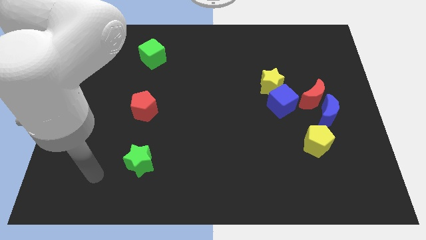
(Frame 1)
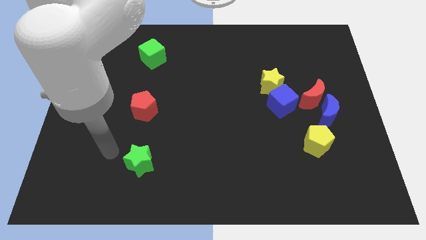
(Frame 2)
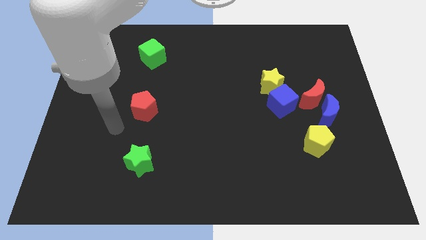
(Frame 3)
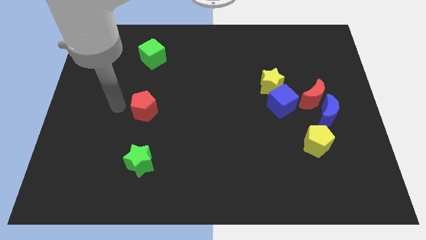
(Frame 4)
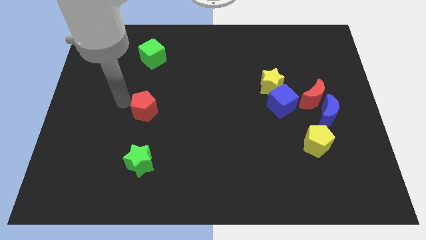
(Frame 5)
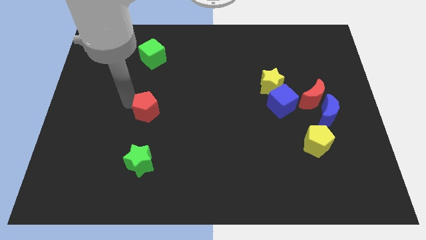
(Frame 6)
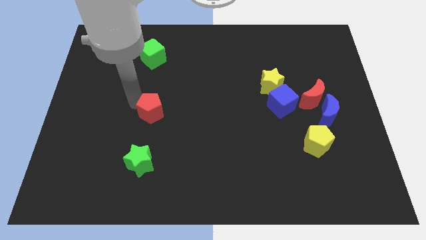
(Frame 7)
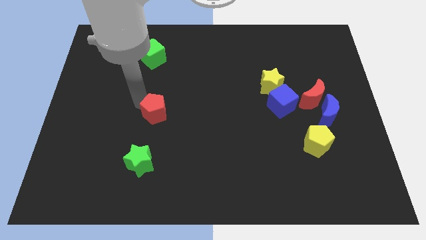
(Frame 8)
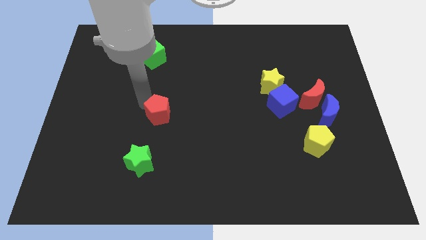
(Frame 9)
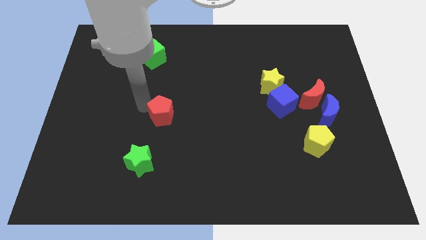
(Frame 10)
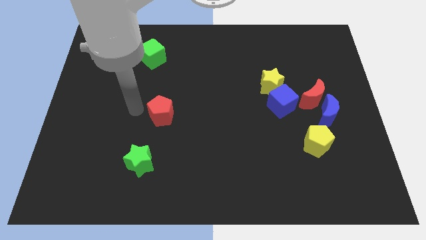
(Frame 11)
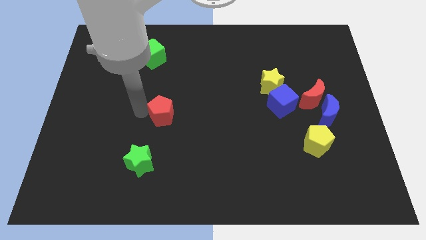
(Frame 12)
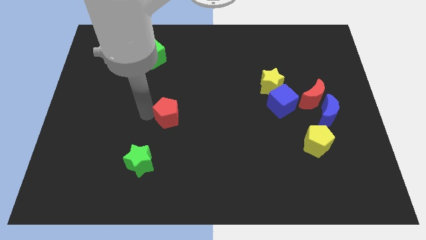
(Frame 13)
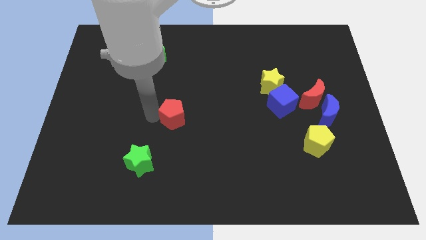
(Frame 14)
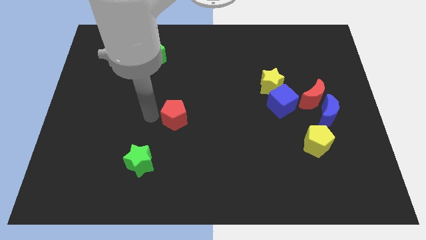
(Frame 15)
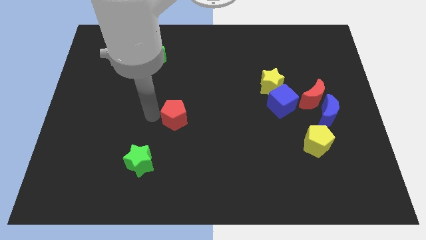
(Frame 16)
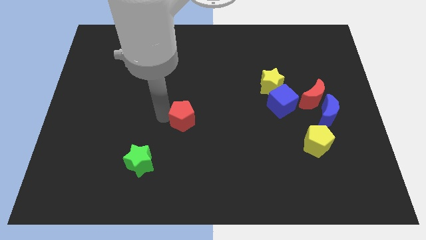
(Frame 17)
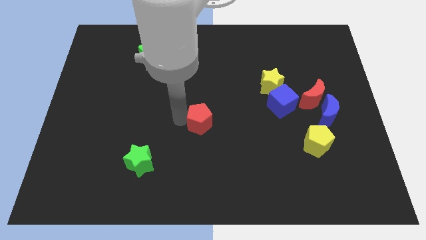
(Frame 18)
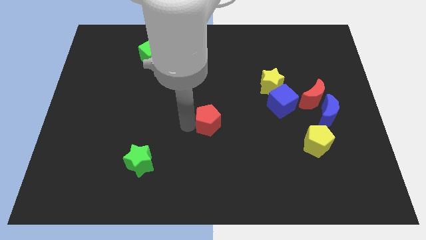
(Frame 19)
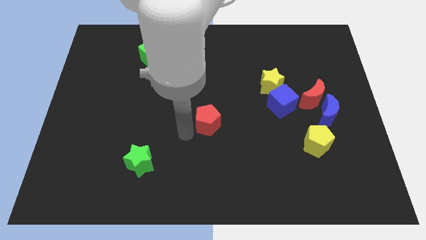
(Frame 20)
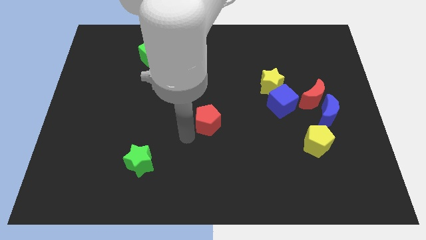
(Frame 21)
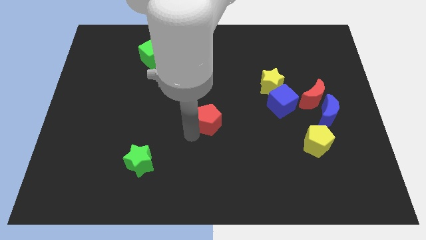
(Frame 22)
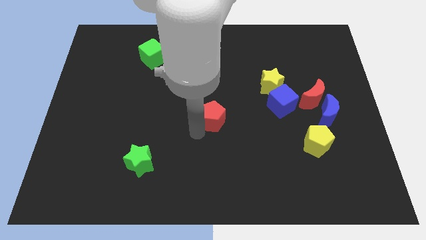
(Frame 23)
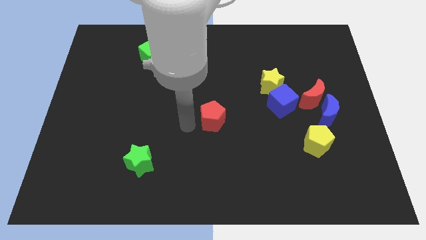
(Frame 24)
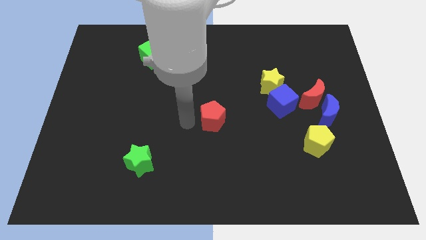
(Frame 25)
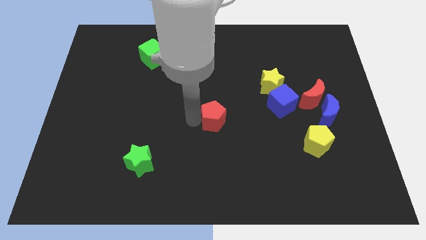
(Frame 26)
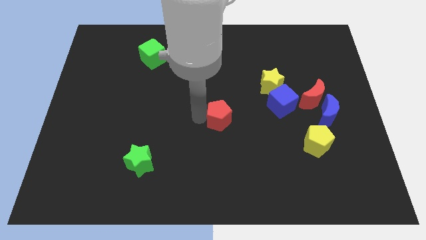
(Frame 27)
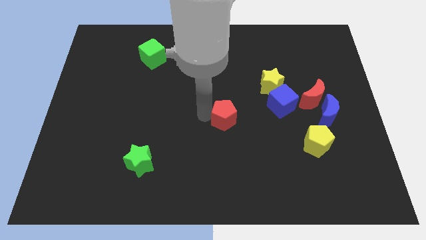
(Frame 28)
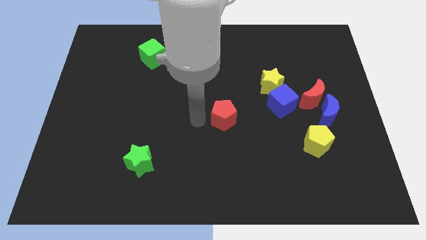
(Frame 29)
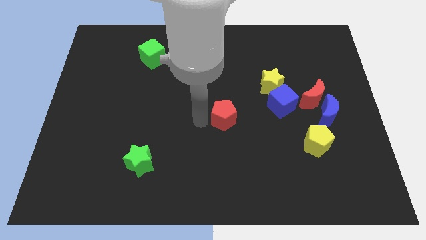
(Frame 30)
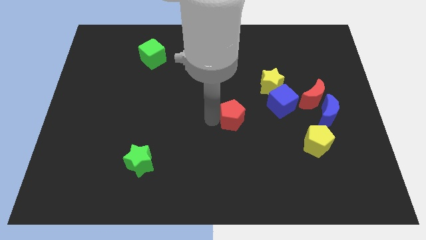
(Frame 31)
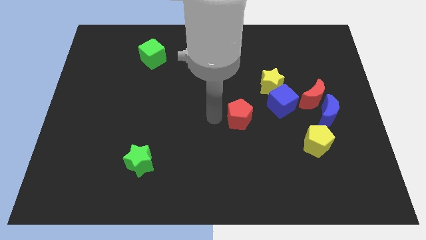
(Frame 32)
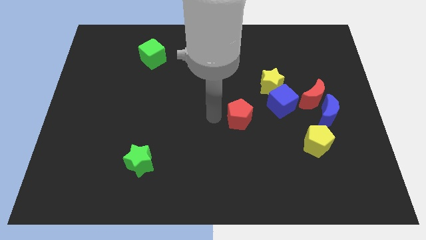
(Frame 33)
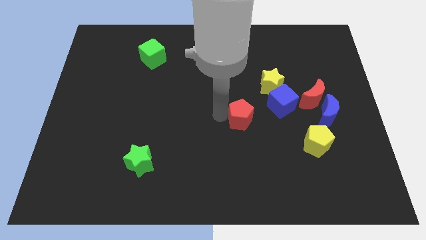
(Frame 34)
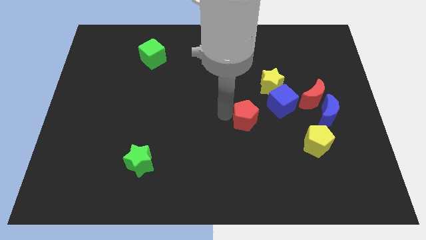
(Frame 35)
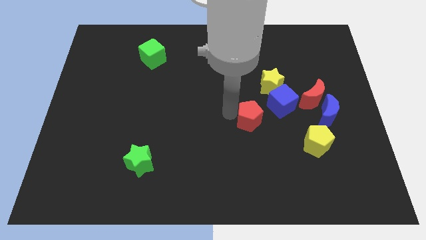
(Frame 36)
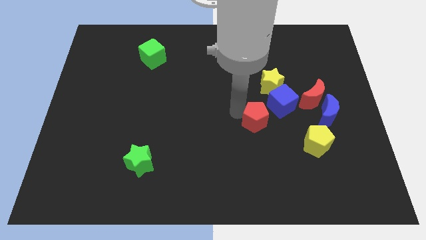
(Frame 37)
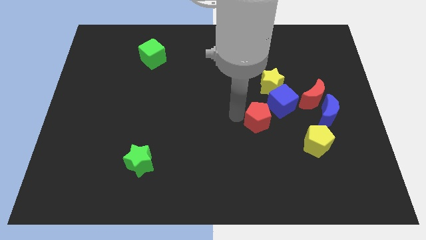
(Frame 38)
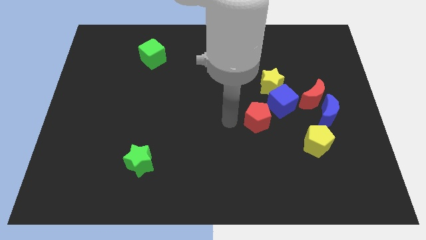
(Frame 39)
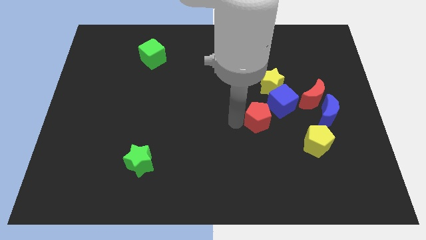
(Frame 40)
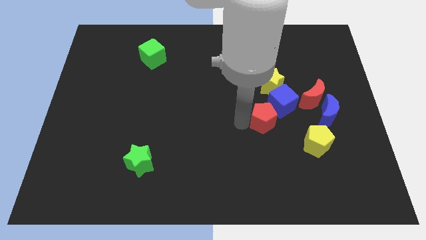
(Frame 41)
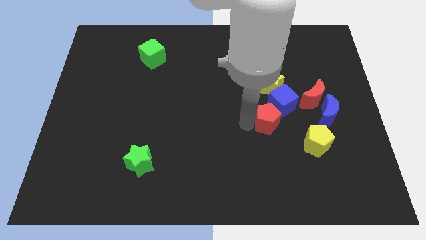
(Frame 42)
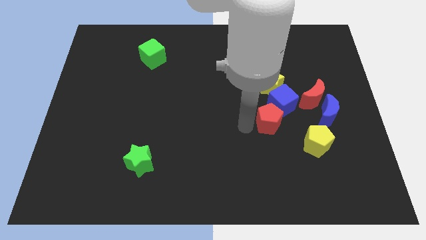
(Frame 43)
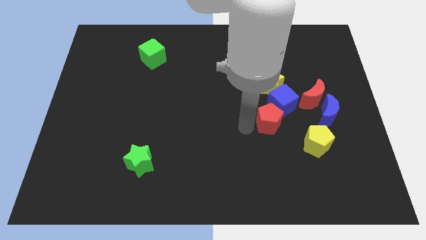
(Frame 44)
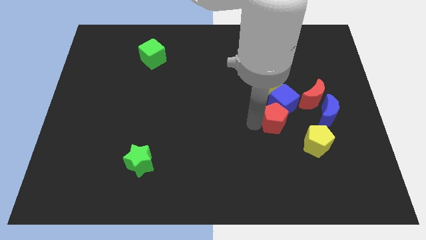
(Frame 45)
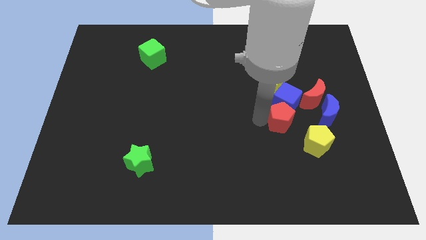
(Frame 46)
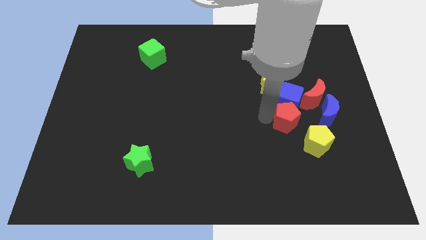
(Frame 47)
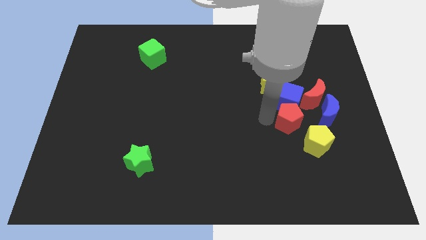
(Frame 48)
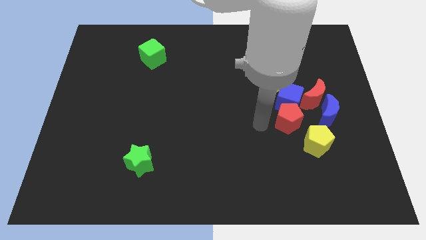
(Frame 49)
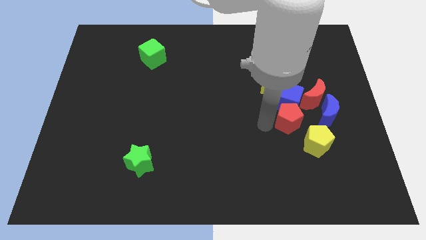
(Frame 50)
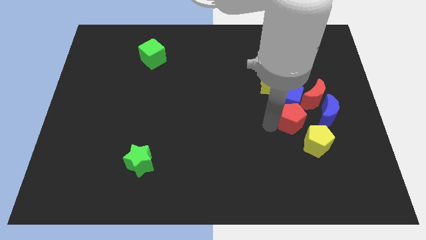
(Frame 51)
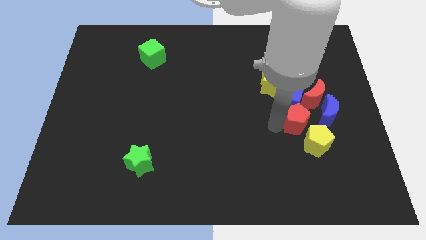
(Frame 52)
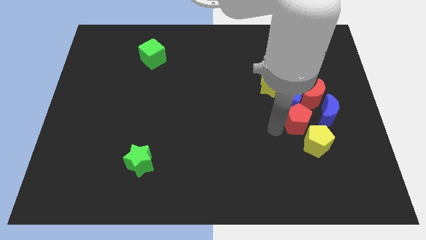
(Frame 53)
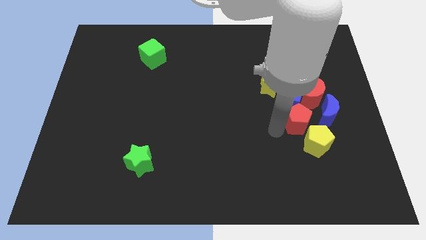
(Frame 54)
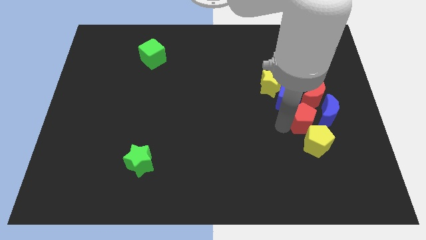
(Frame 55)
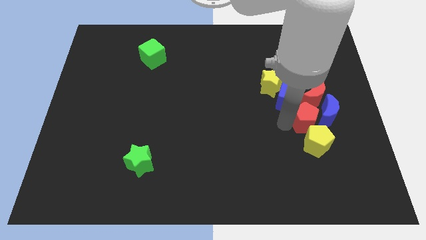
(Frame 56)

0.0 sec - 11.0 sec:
put the red pentagon to the blue moon

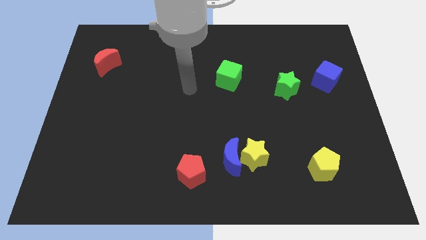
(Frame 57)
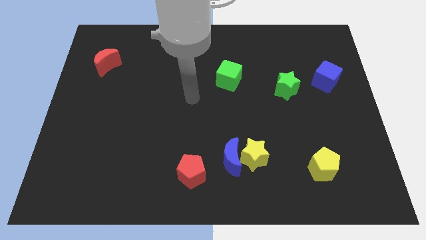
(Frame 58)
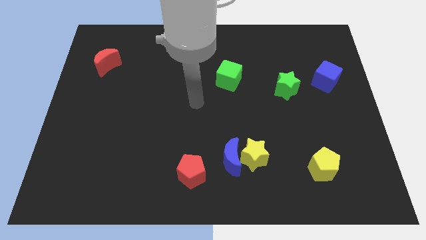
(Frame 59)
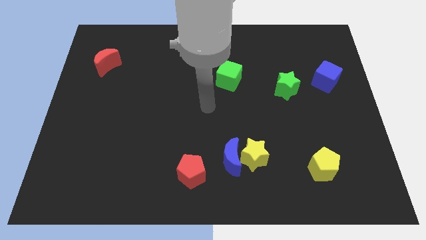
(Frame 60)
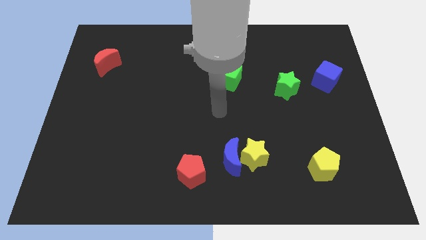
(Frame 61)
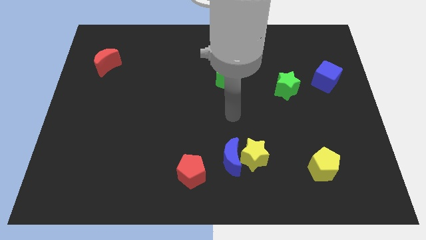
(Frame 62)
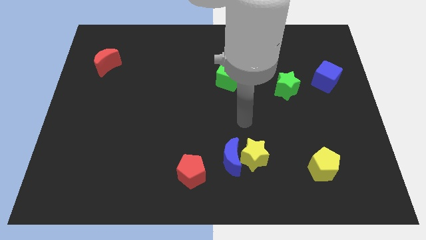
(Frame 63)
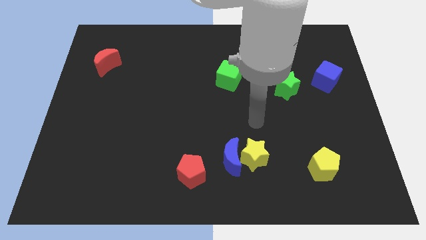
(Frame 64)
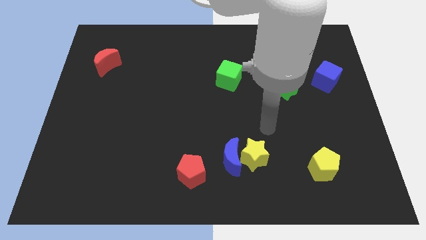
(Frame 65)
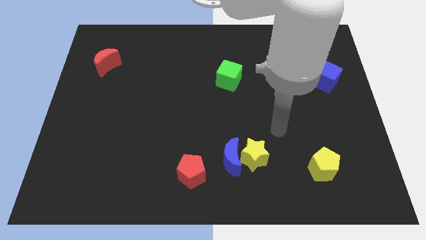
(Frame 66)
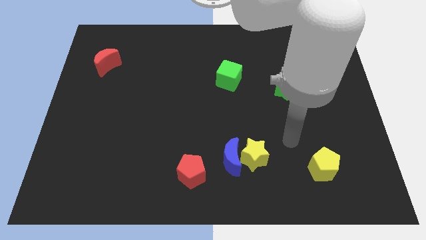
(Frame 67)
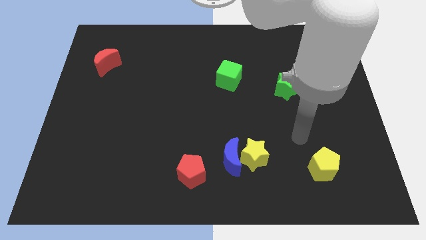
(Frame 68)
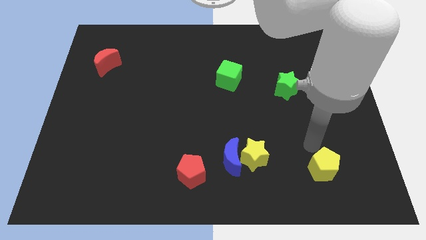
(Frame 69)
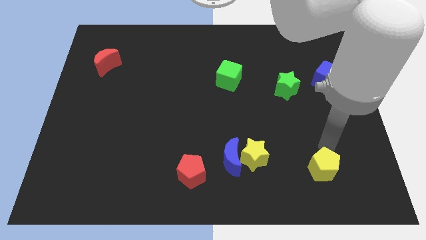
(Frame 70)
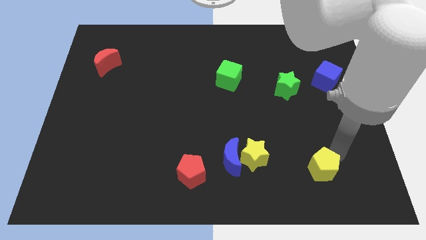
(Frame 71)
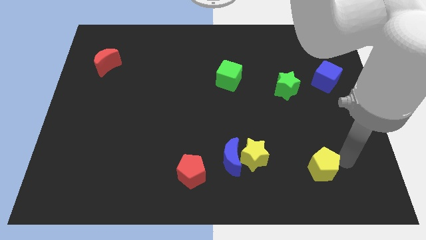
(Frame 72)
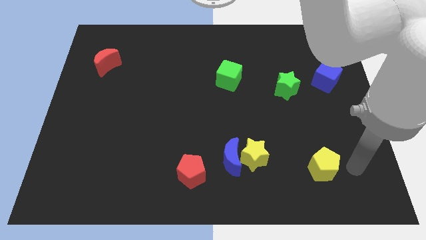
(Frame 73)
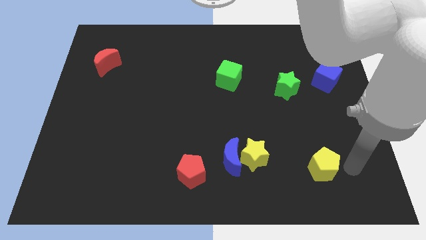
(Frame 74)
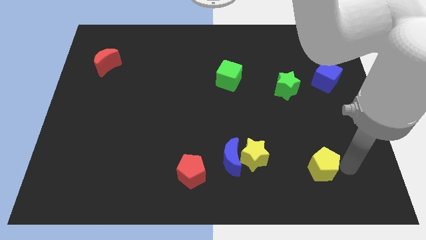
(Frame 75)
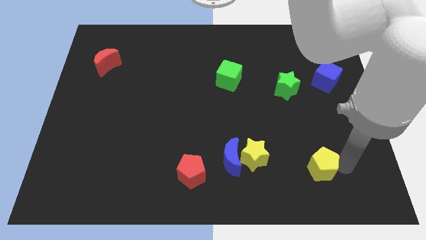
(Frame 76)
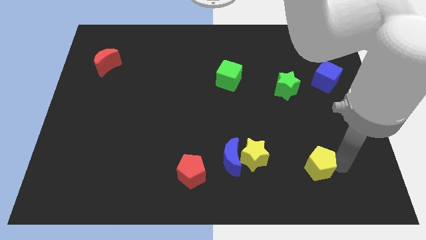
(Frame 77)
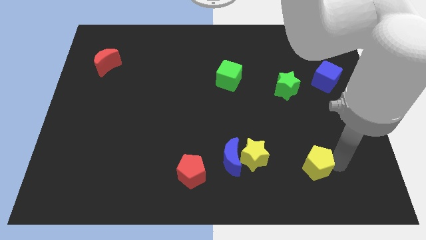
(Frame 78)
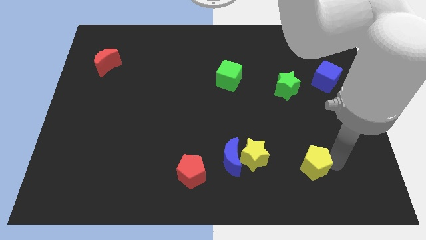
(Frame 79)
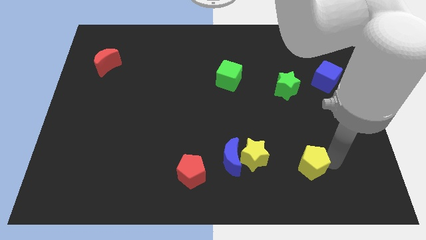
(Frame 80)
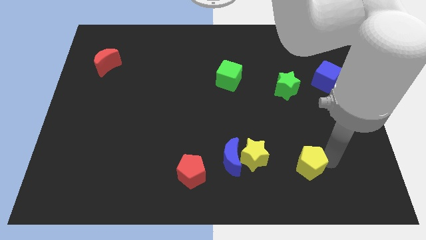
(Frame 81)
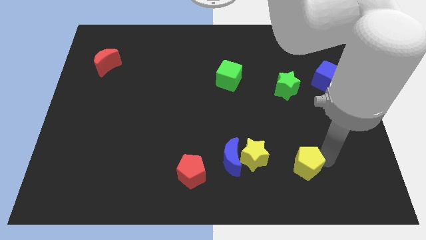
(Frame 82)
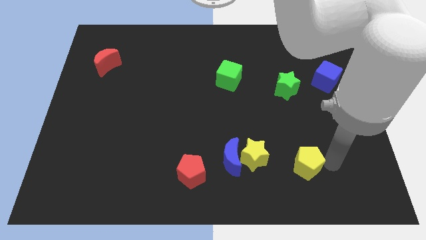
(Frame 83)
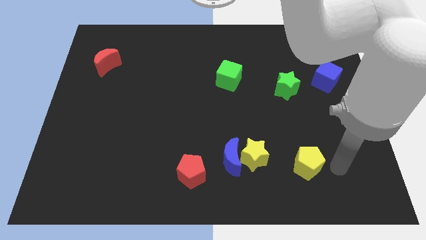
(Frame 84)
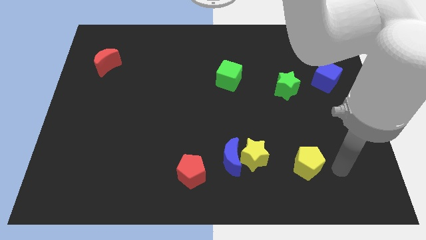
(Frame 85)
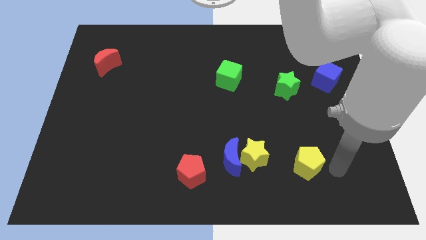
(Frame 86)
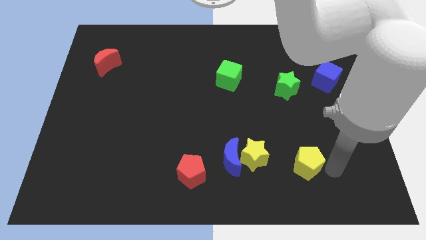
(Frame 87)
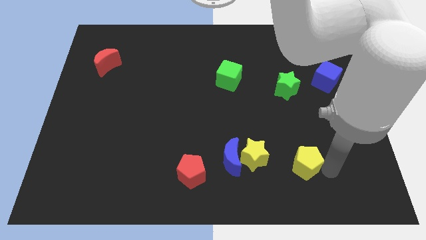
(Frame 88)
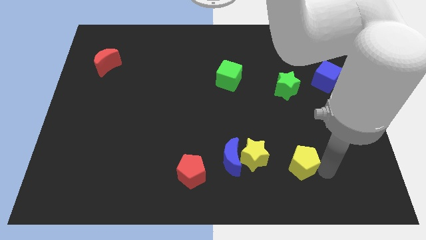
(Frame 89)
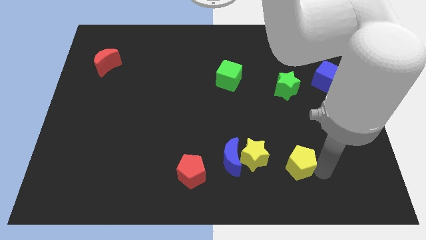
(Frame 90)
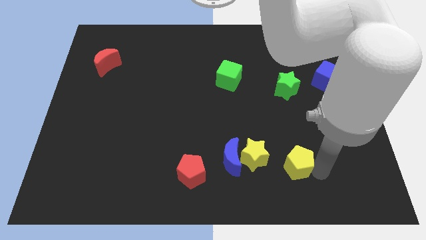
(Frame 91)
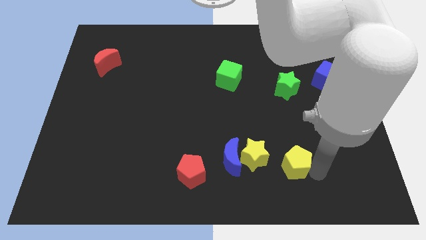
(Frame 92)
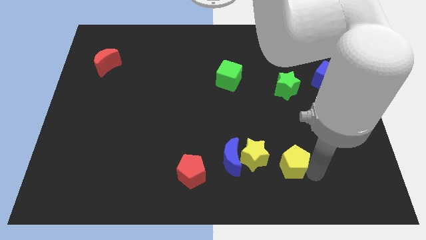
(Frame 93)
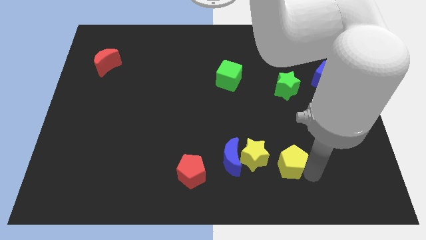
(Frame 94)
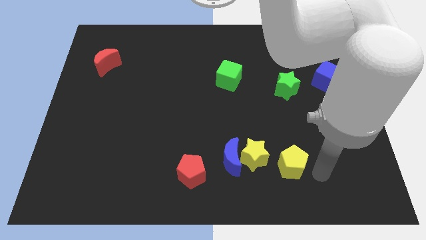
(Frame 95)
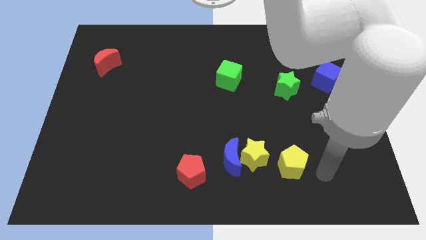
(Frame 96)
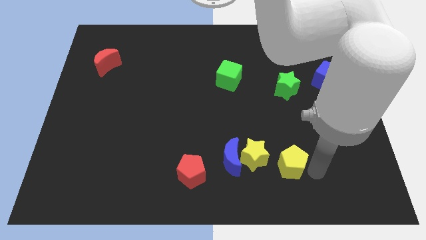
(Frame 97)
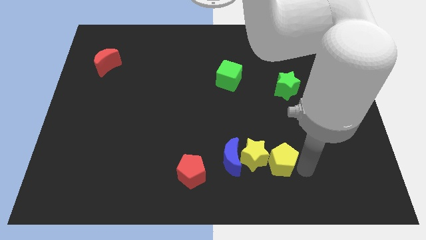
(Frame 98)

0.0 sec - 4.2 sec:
put the yellow pentagon to the yellow star
